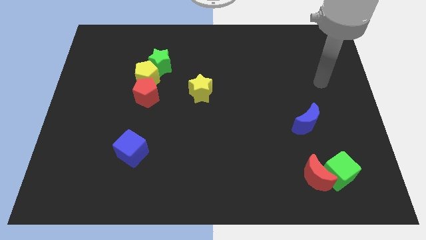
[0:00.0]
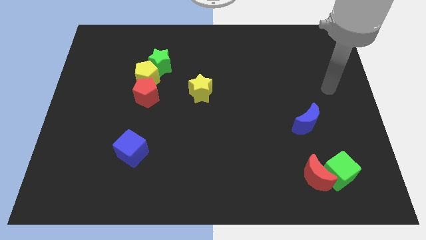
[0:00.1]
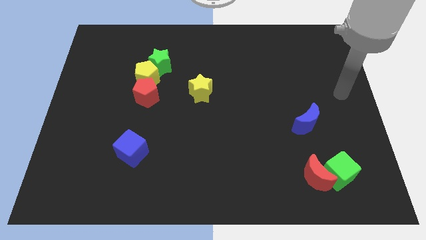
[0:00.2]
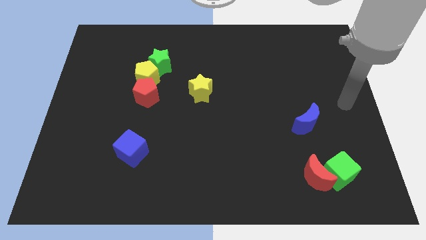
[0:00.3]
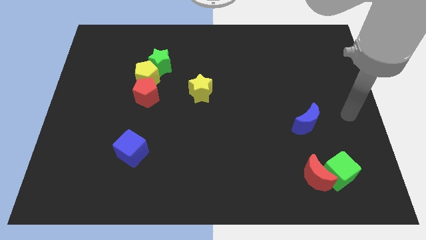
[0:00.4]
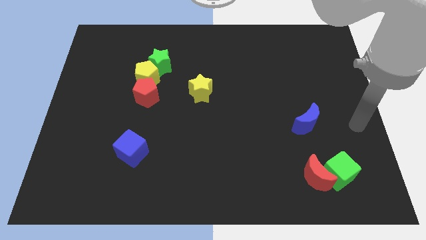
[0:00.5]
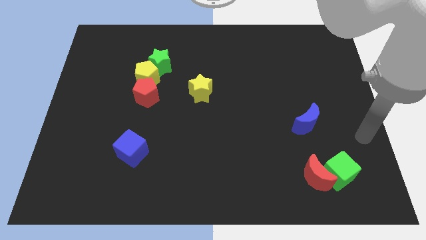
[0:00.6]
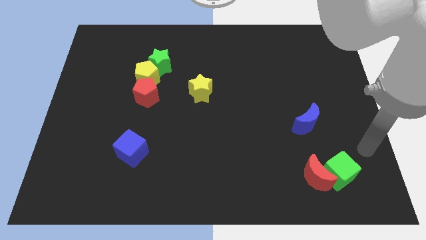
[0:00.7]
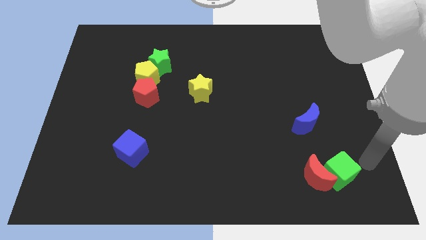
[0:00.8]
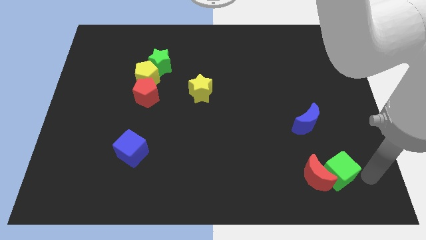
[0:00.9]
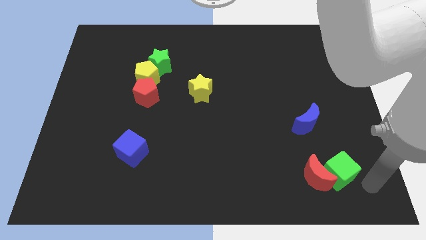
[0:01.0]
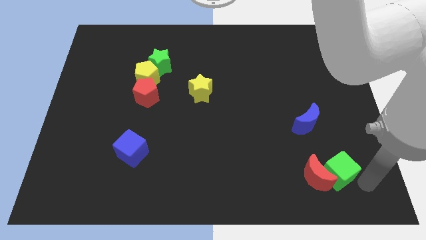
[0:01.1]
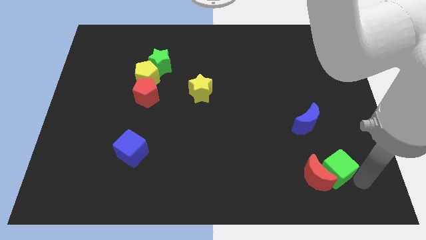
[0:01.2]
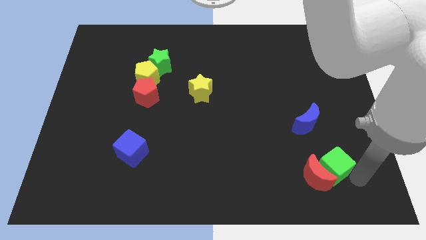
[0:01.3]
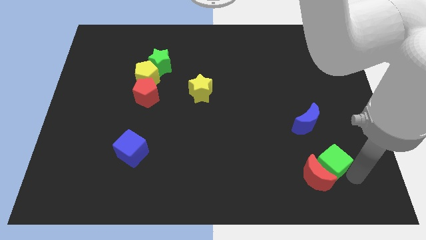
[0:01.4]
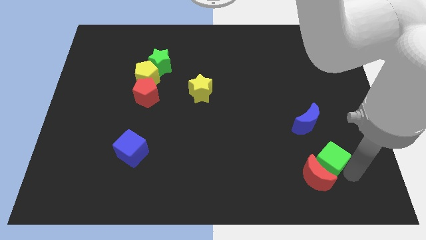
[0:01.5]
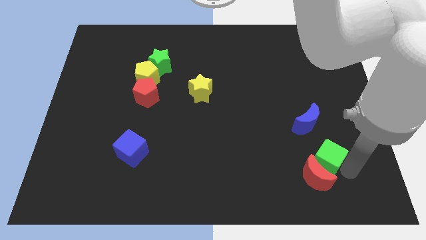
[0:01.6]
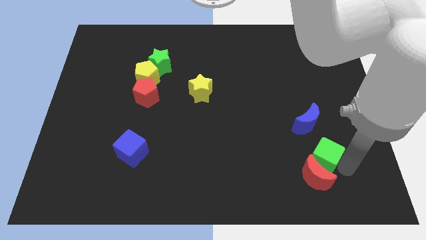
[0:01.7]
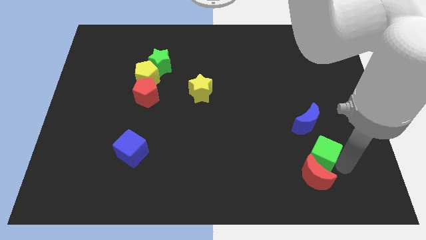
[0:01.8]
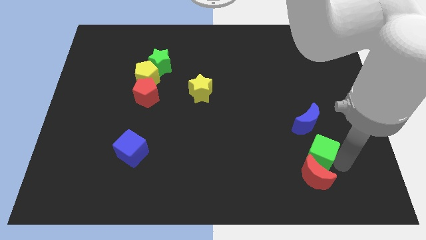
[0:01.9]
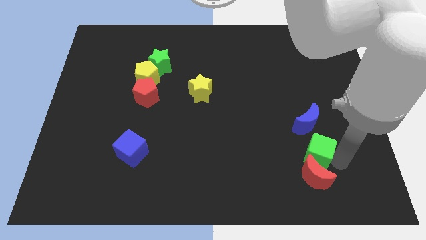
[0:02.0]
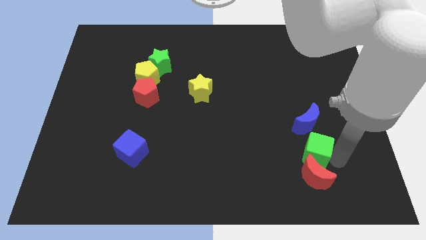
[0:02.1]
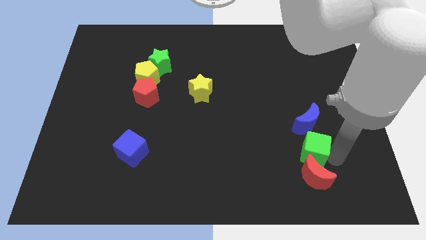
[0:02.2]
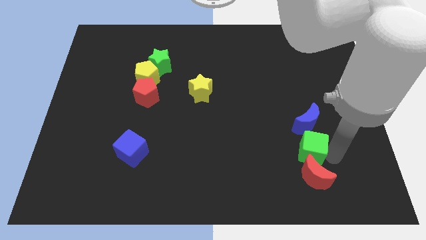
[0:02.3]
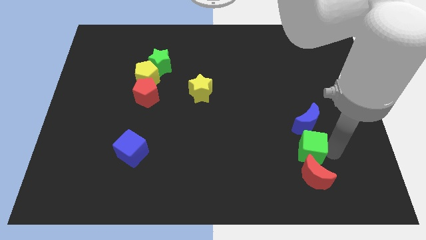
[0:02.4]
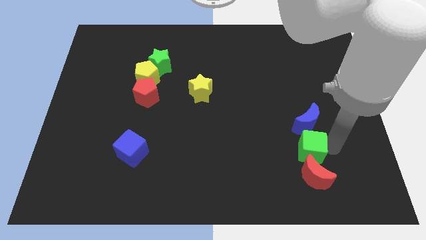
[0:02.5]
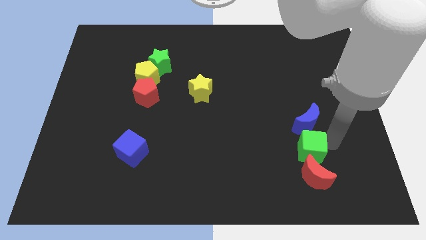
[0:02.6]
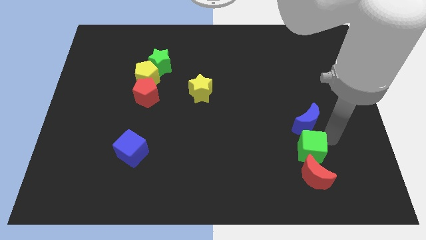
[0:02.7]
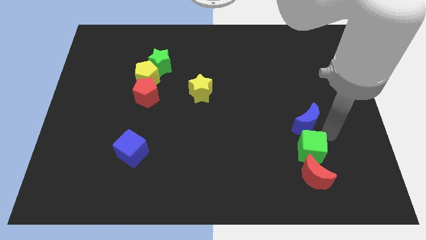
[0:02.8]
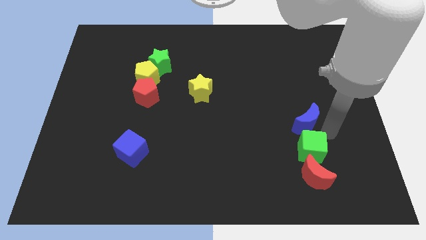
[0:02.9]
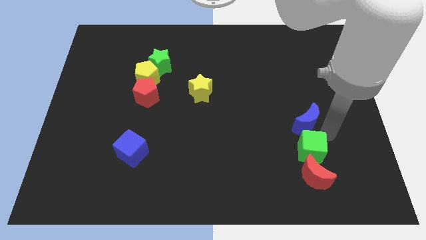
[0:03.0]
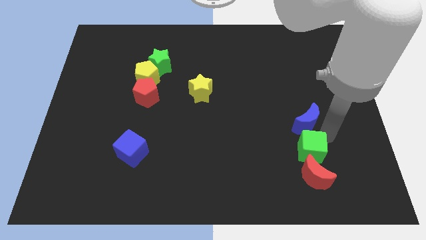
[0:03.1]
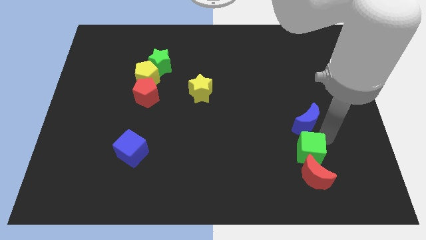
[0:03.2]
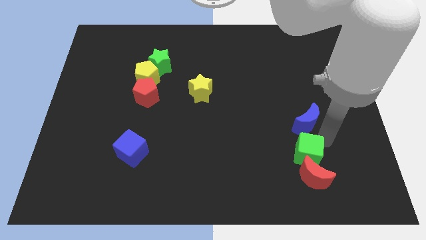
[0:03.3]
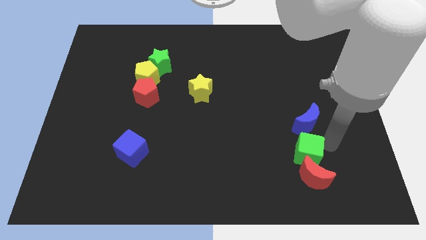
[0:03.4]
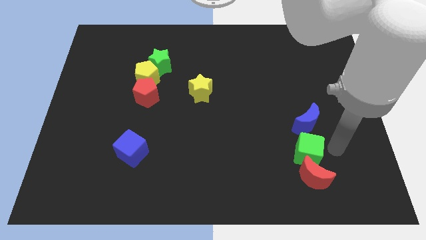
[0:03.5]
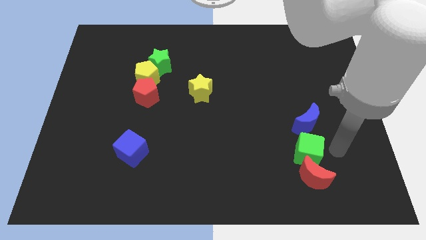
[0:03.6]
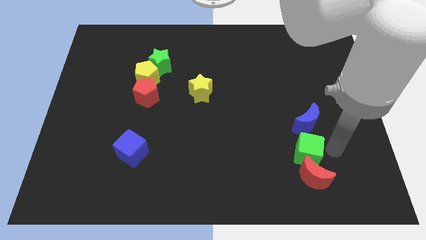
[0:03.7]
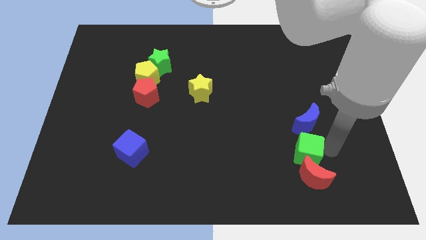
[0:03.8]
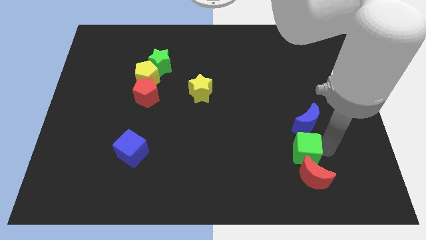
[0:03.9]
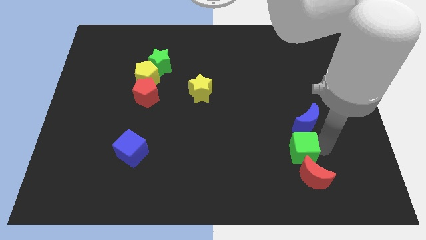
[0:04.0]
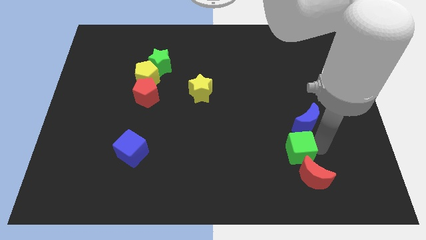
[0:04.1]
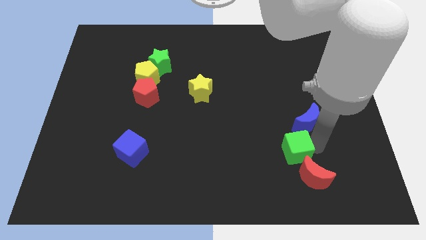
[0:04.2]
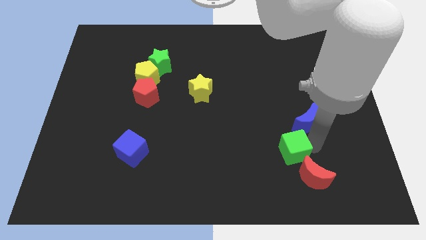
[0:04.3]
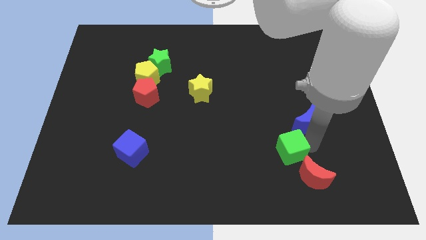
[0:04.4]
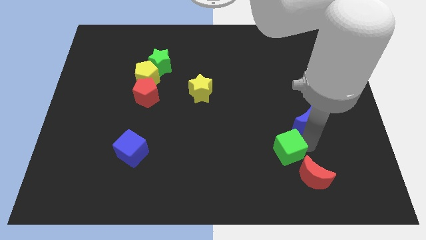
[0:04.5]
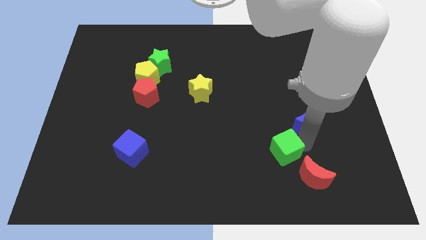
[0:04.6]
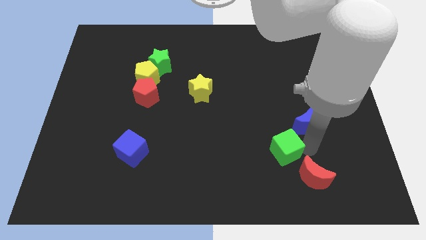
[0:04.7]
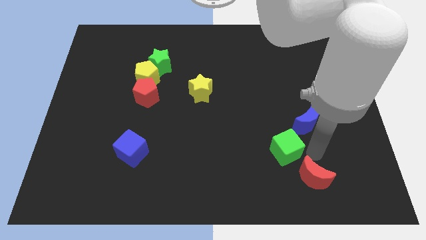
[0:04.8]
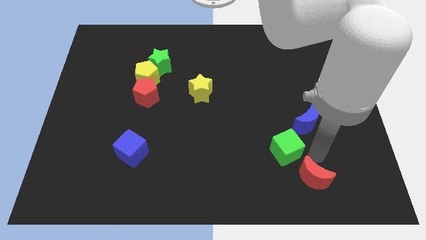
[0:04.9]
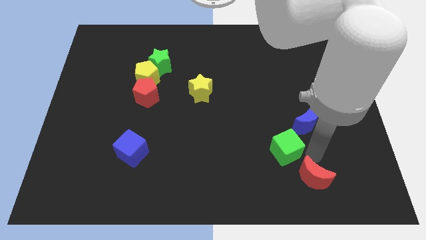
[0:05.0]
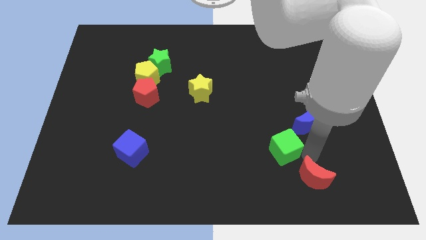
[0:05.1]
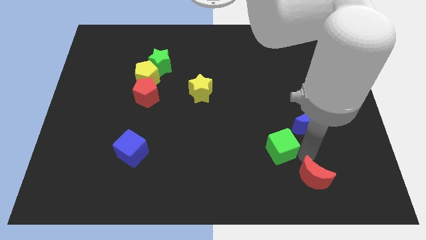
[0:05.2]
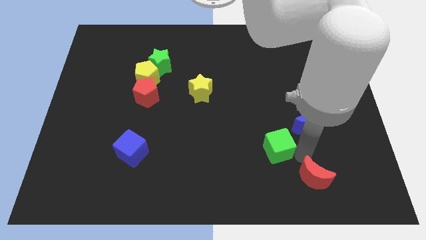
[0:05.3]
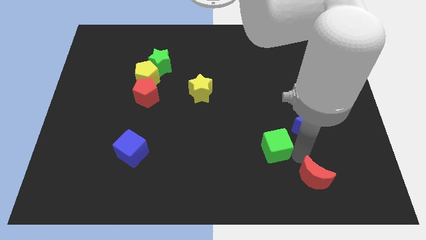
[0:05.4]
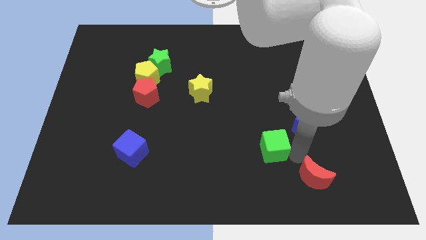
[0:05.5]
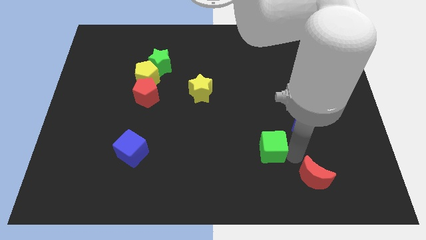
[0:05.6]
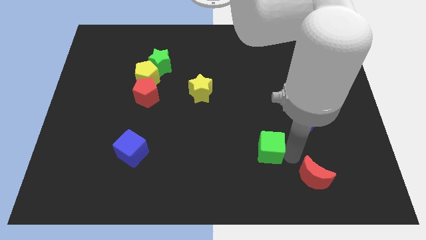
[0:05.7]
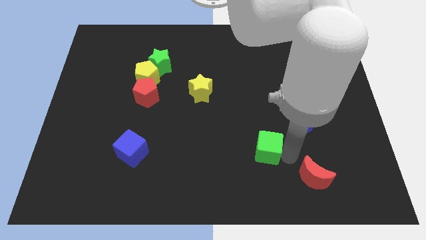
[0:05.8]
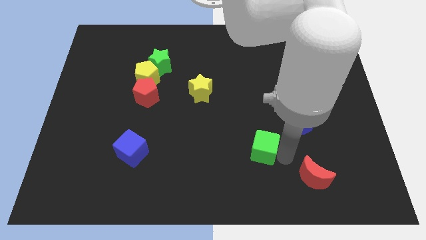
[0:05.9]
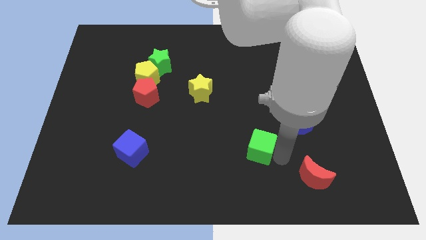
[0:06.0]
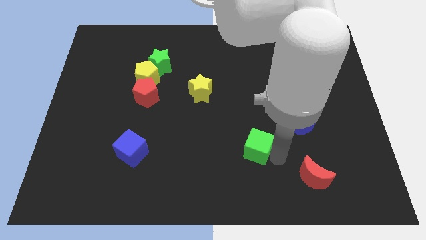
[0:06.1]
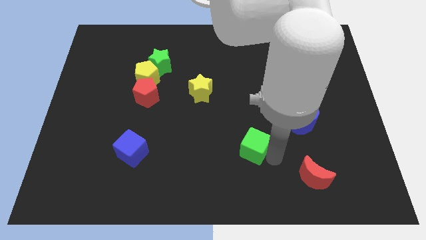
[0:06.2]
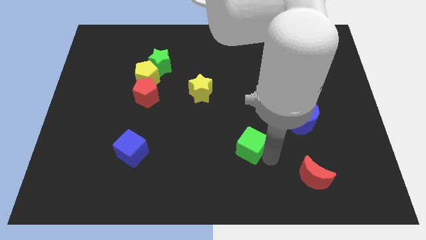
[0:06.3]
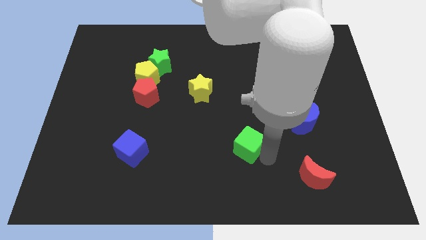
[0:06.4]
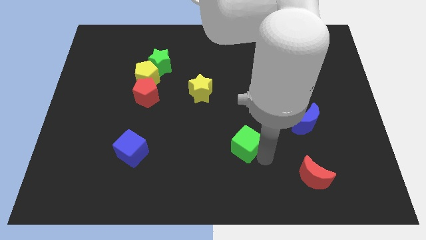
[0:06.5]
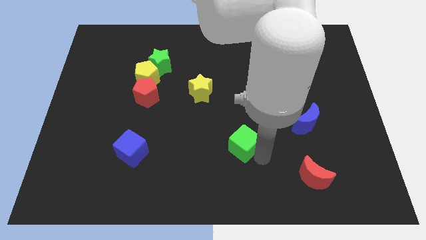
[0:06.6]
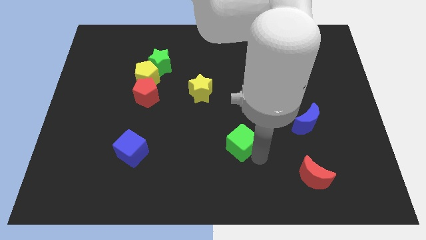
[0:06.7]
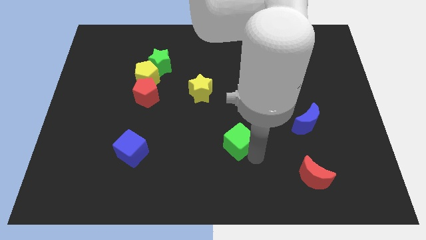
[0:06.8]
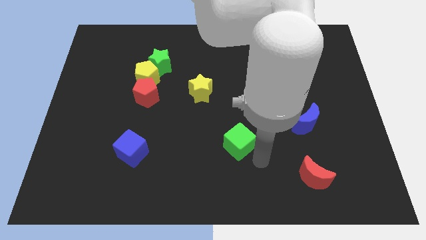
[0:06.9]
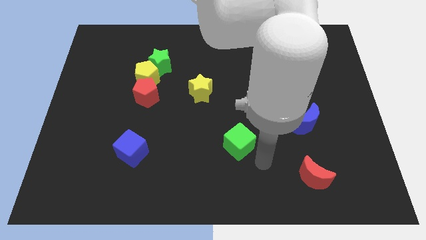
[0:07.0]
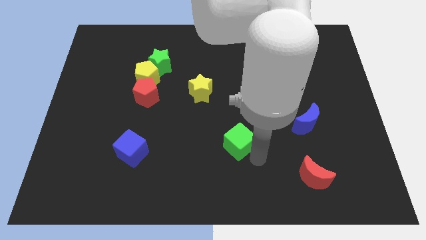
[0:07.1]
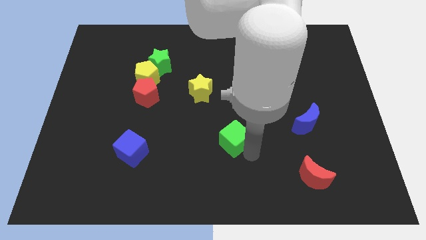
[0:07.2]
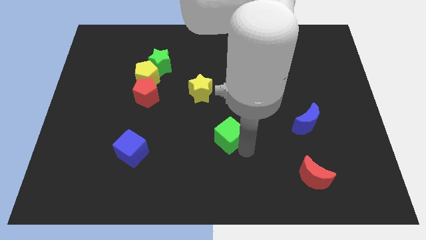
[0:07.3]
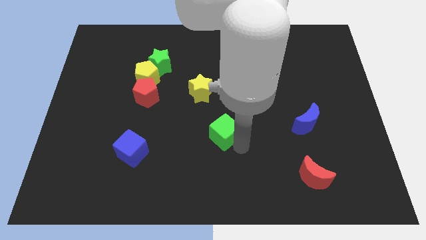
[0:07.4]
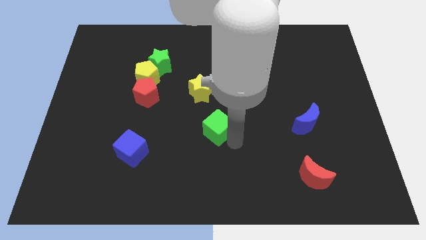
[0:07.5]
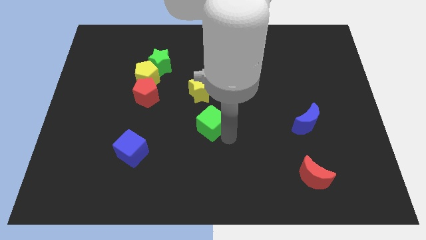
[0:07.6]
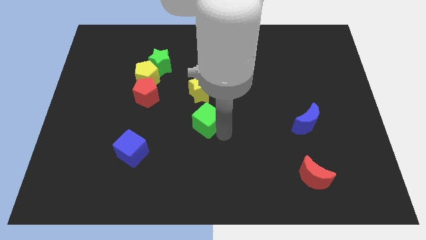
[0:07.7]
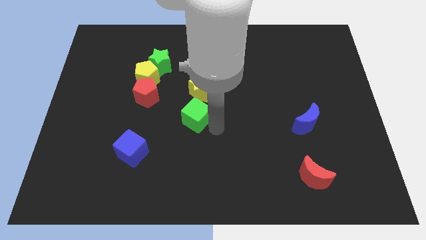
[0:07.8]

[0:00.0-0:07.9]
slide the green cube to the bottom left of the yellow star
